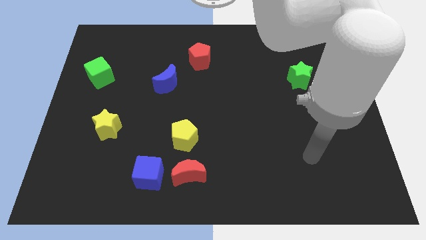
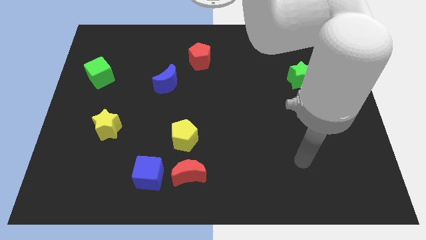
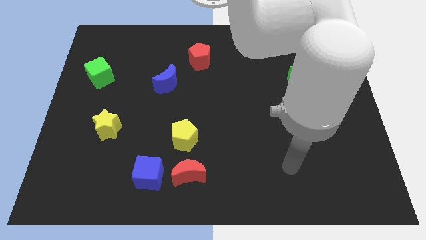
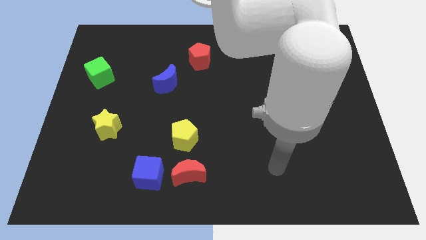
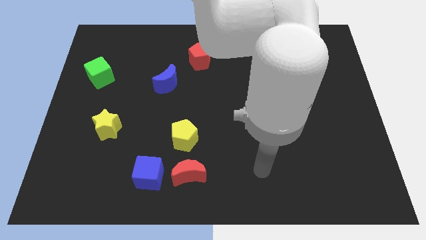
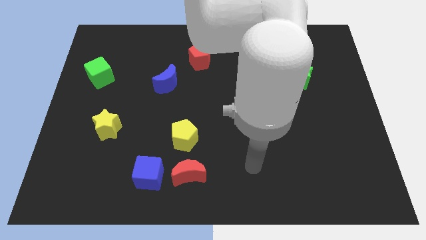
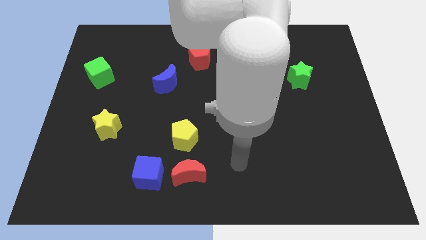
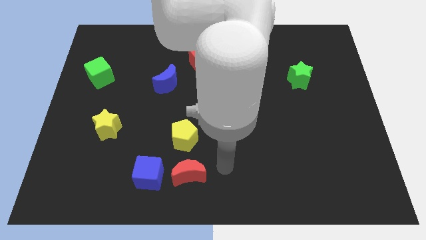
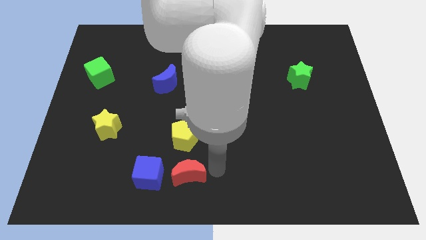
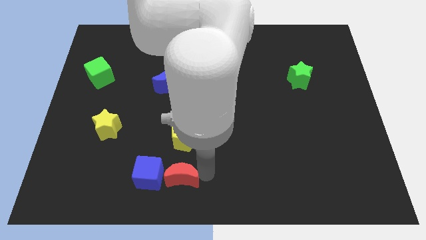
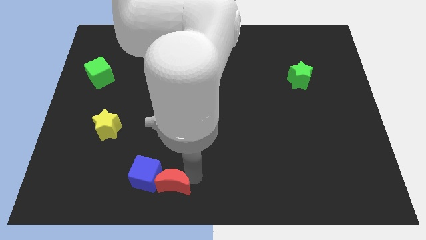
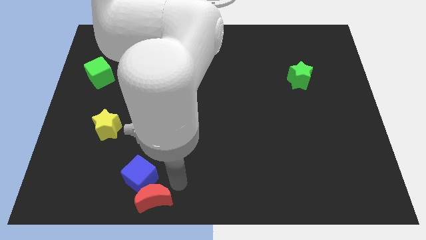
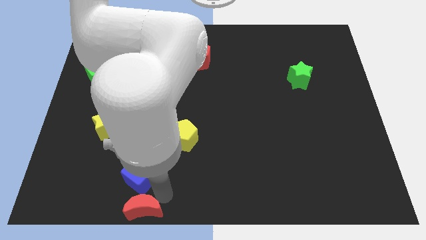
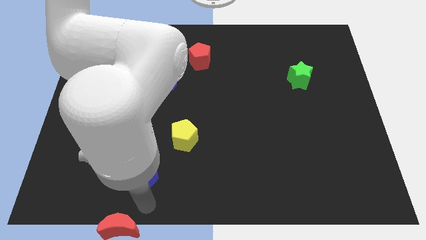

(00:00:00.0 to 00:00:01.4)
separate the blue cube from the red moon

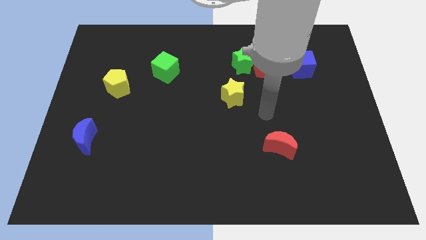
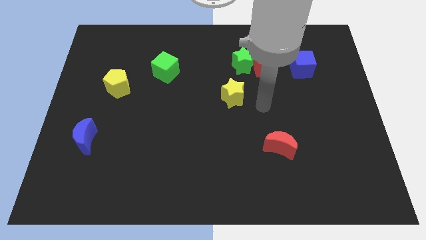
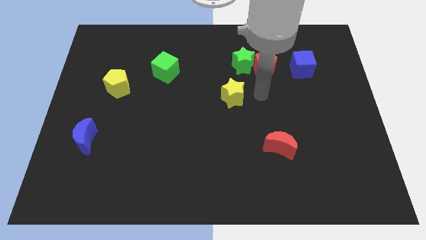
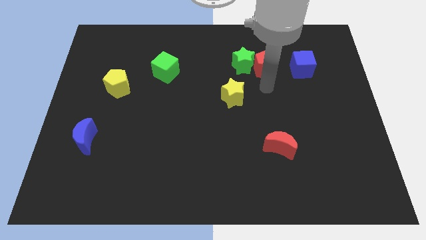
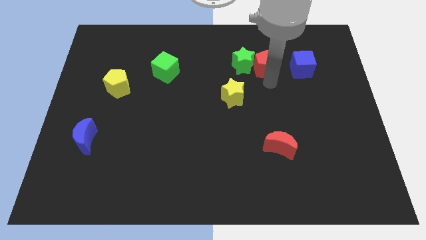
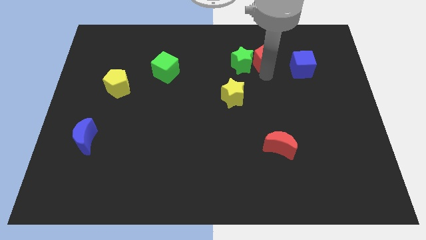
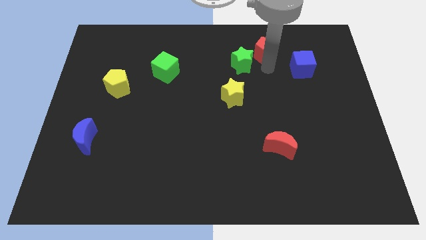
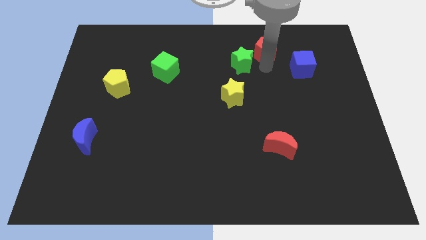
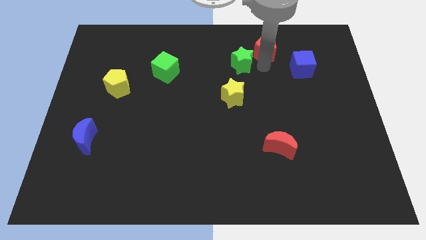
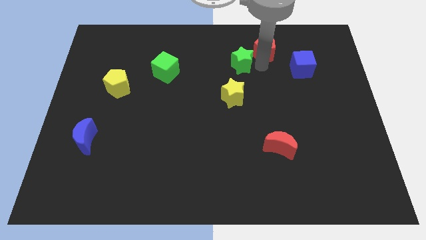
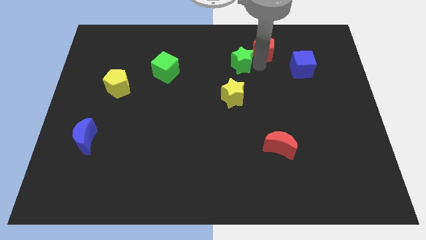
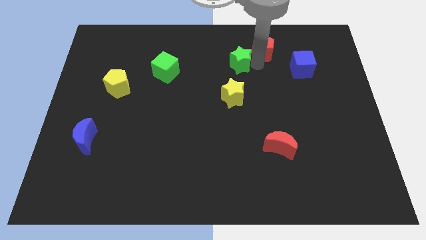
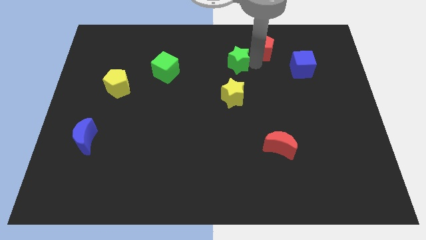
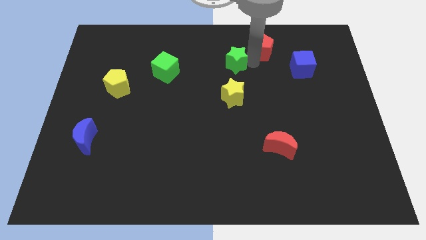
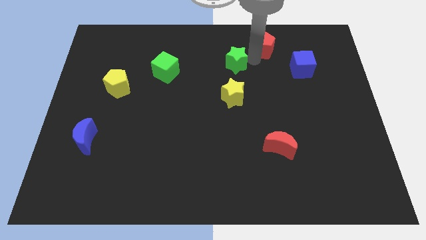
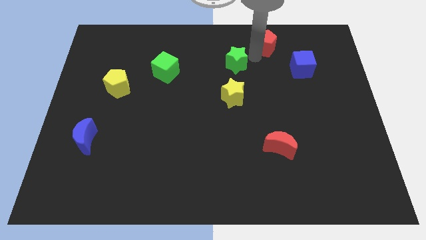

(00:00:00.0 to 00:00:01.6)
separate the green star from the red pentagon

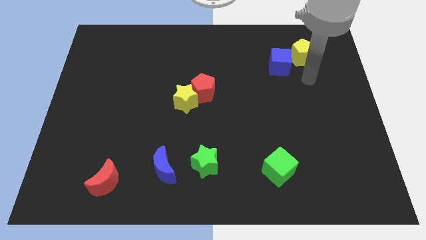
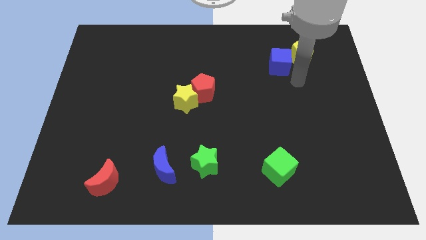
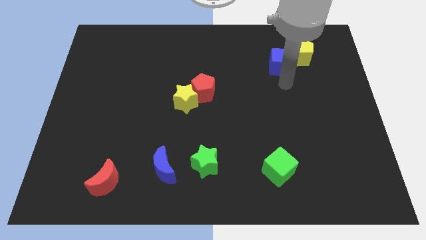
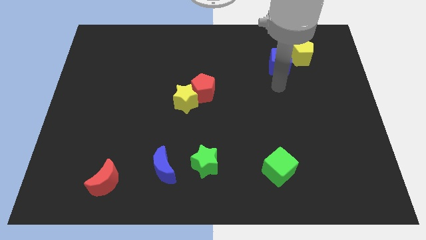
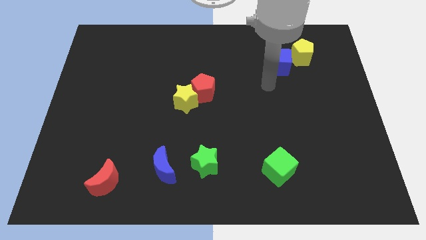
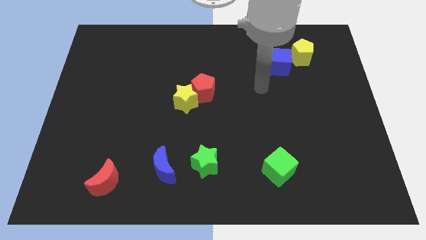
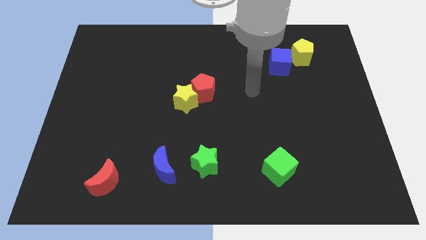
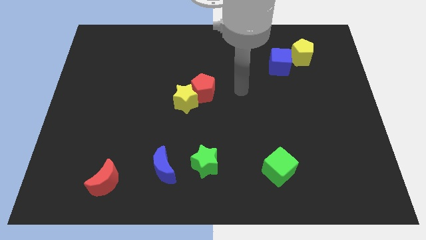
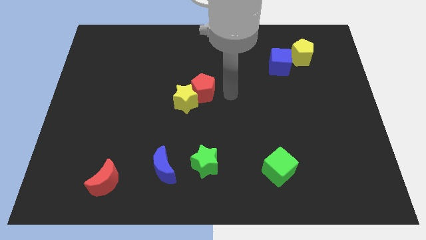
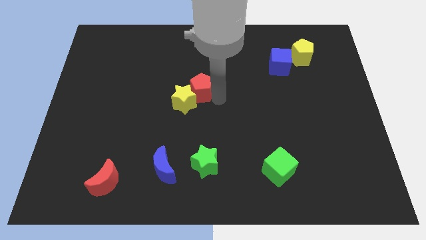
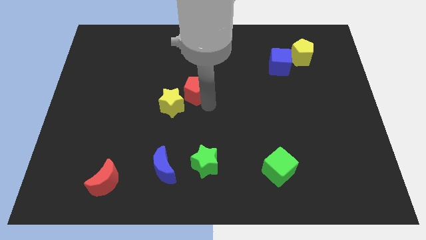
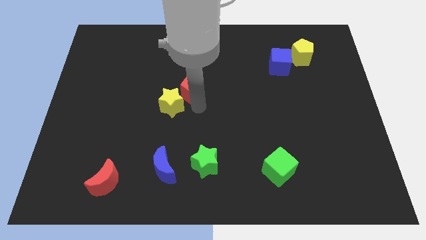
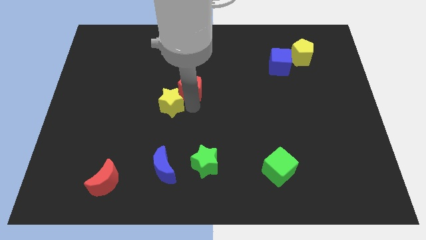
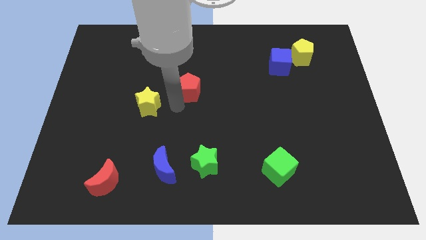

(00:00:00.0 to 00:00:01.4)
move the red pentagon away from the yellow star

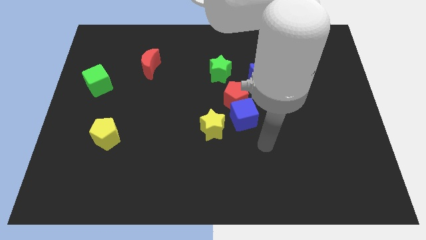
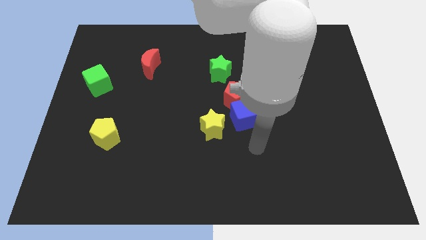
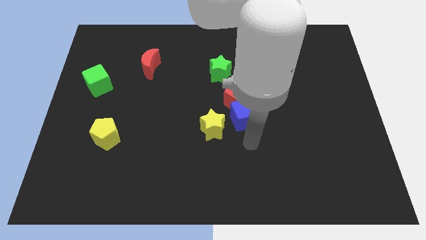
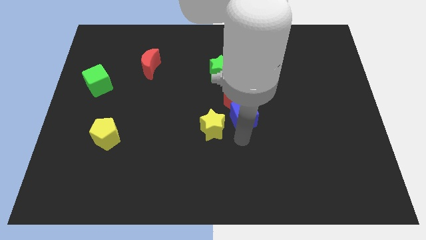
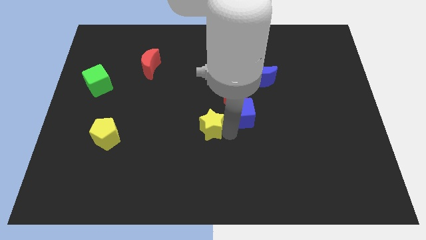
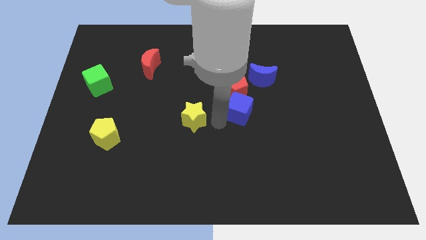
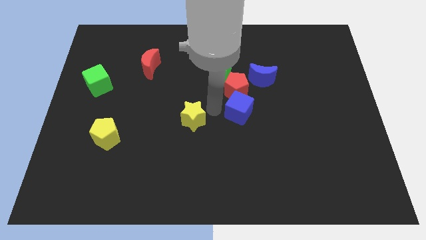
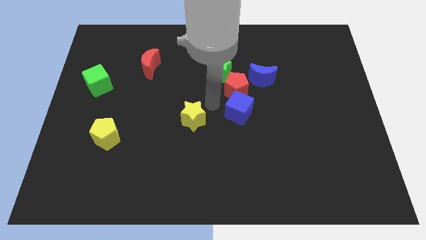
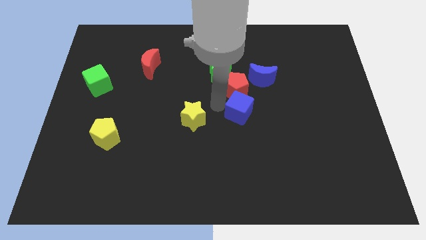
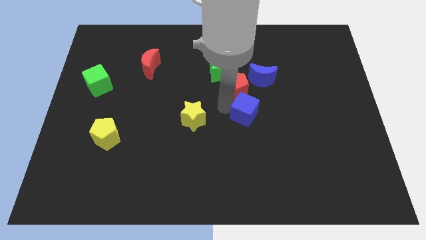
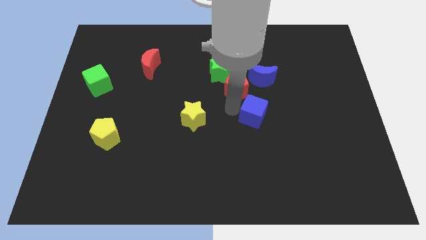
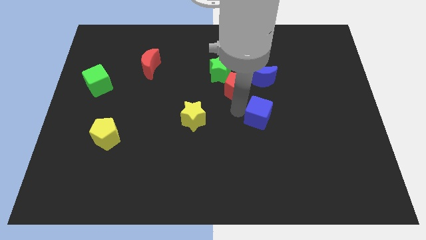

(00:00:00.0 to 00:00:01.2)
separate the blue cube from the red pentagon and yellow star

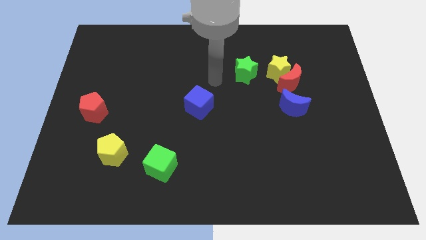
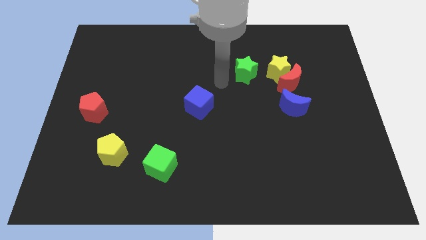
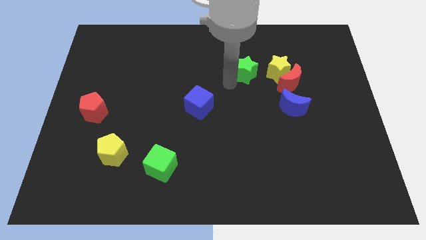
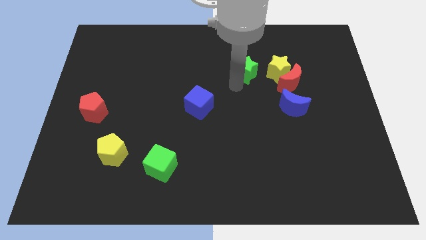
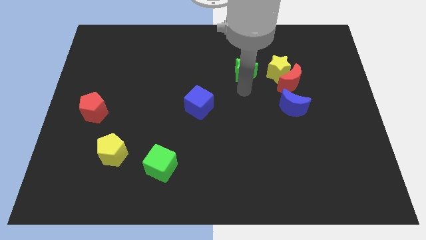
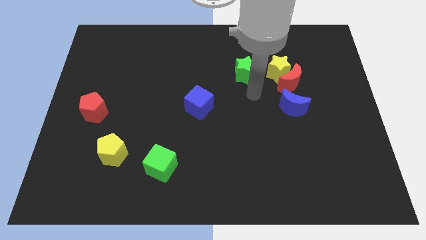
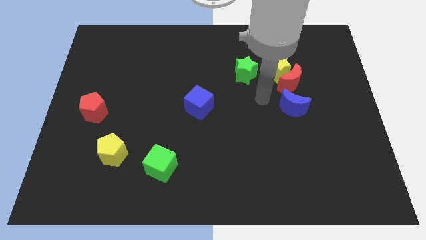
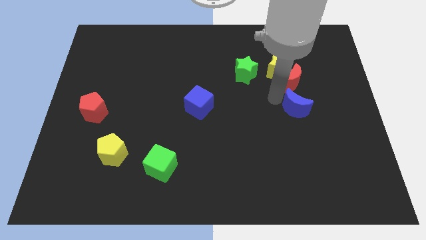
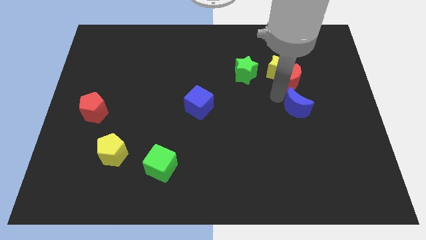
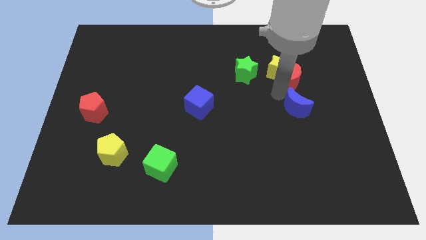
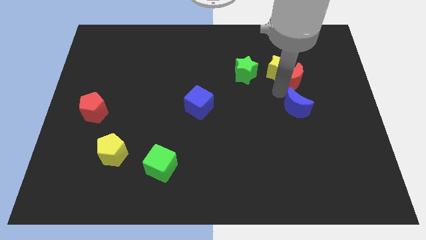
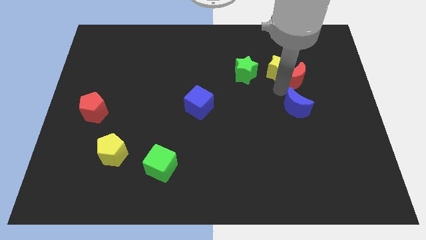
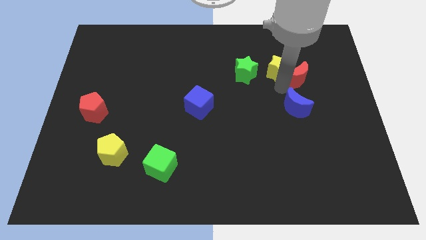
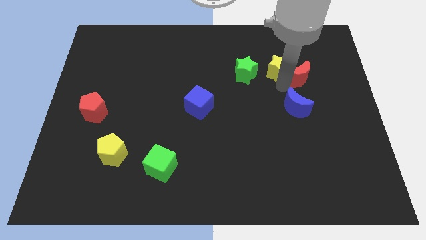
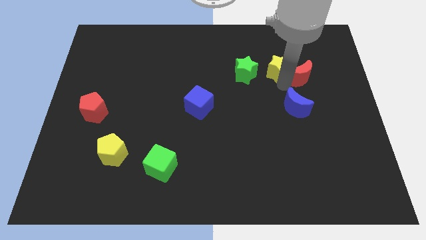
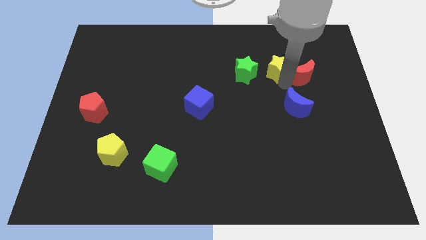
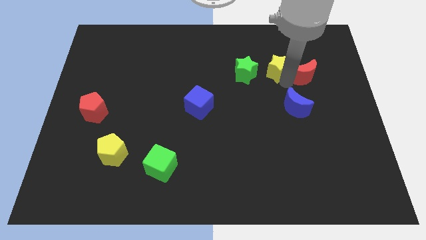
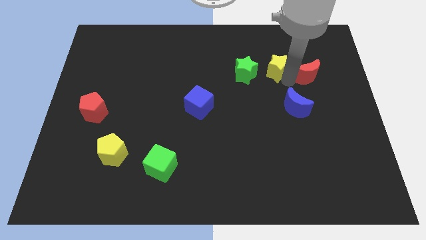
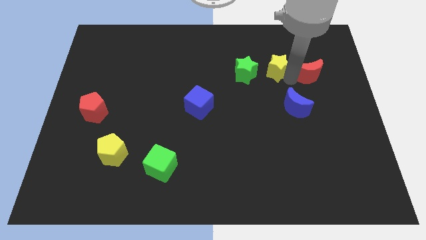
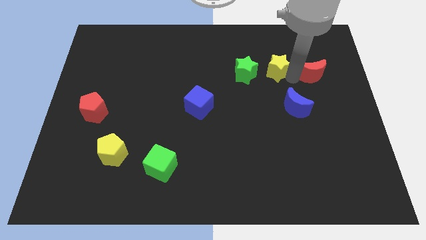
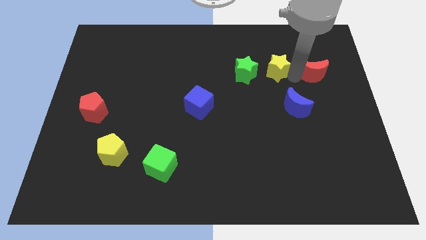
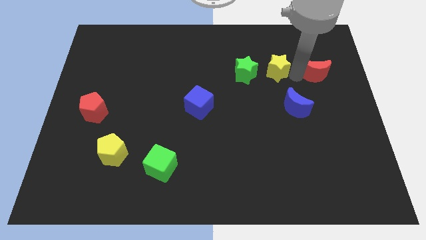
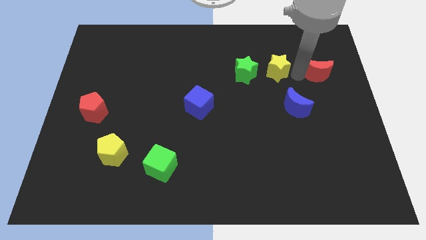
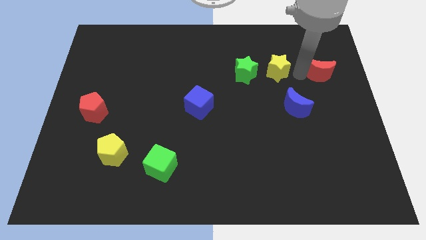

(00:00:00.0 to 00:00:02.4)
move the red moon away from the yellow star and blue moon

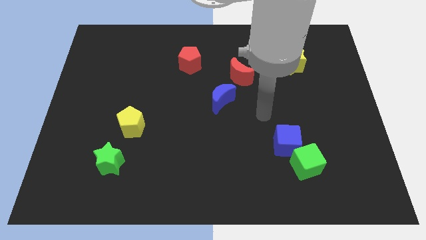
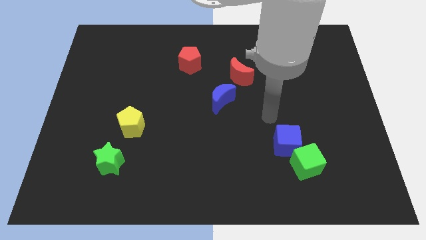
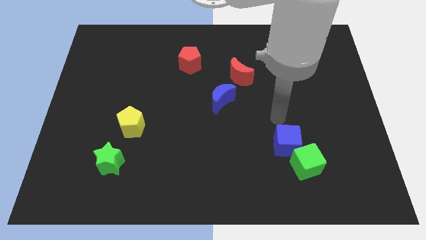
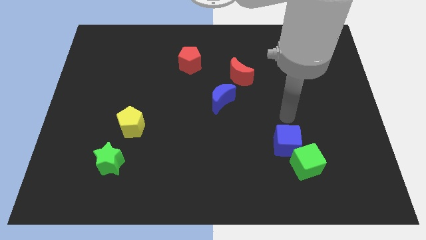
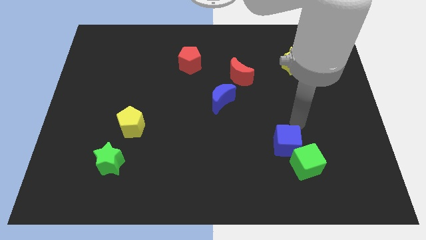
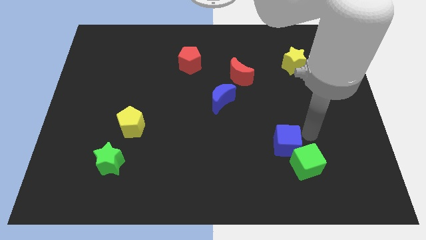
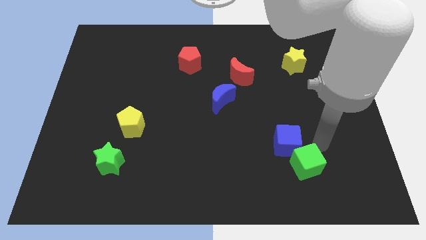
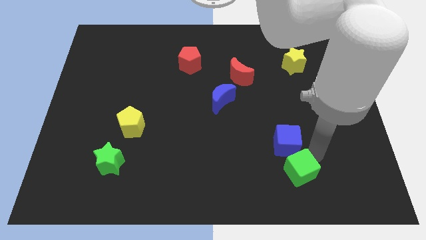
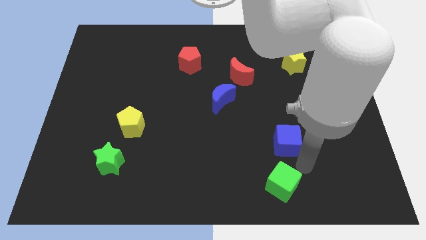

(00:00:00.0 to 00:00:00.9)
pull the blue cube apart from the green cube

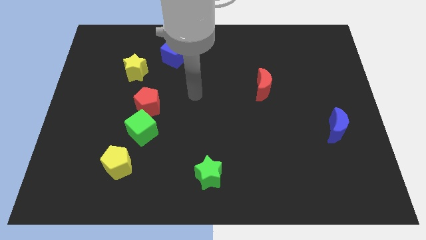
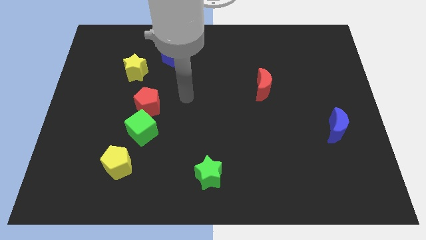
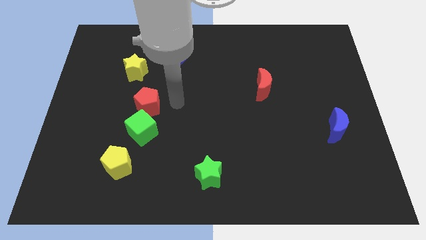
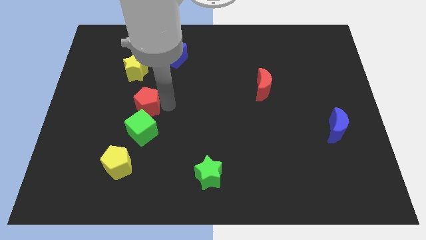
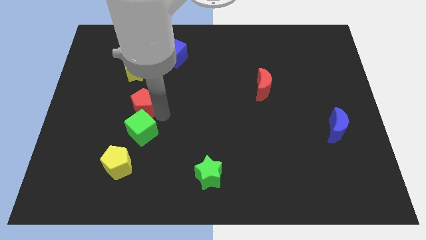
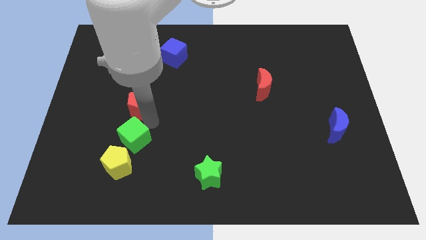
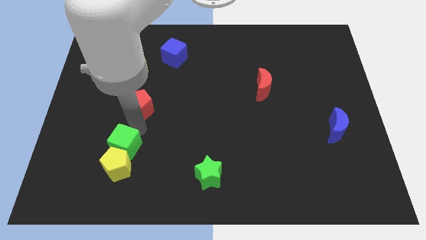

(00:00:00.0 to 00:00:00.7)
move the red pentagon away from the green cube
